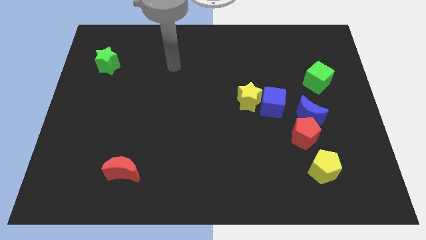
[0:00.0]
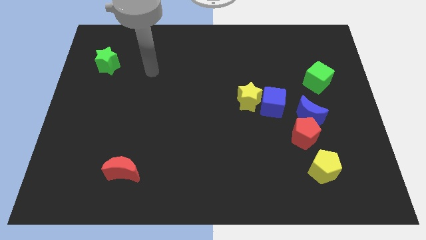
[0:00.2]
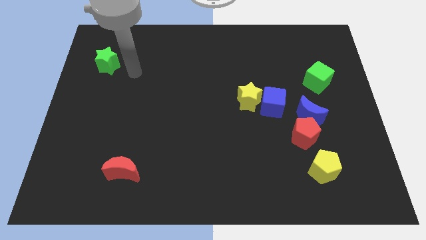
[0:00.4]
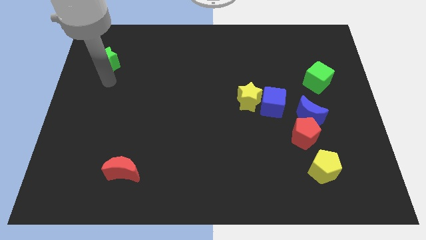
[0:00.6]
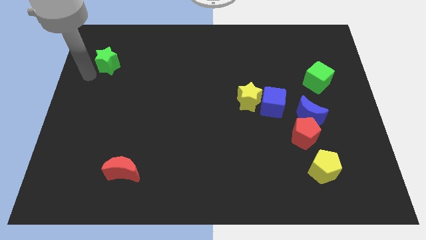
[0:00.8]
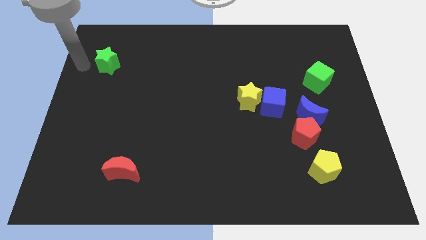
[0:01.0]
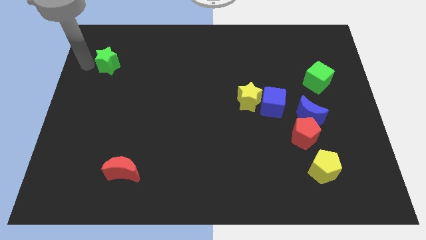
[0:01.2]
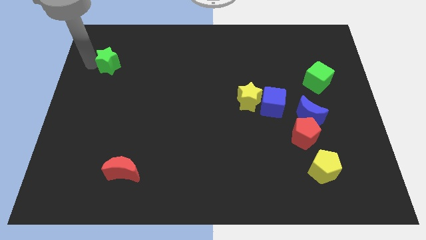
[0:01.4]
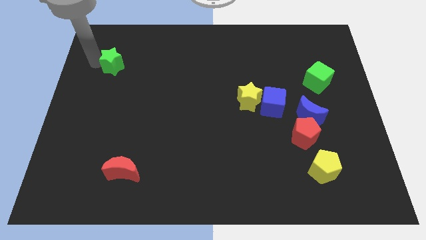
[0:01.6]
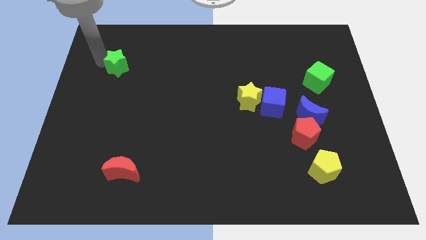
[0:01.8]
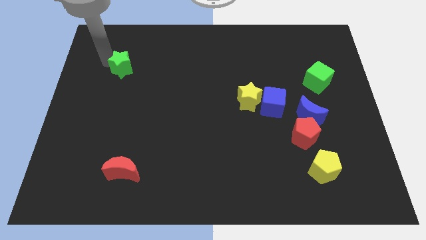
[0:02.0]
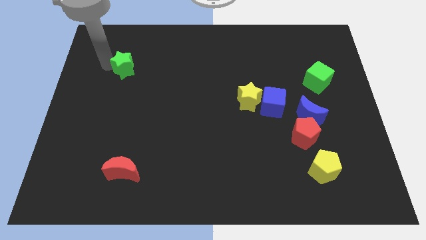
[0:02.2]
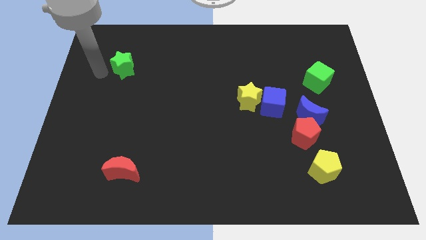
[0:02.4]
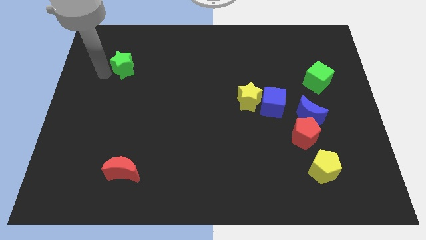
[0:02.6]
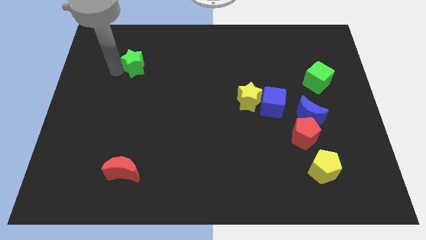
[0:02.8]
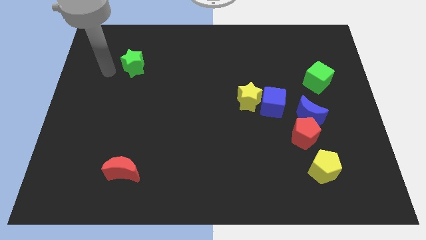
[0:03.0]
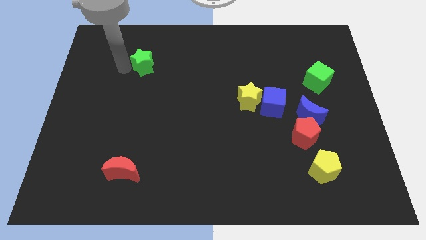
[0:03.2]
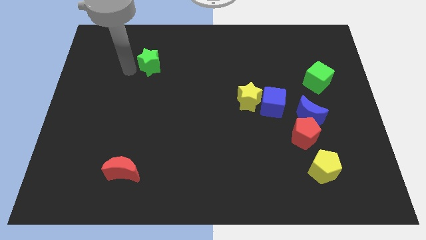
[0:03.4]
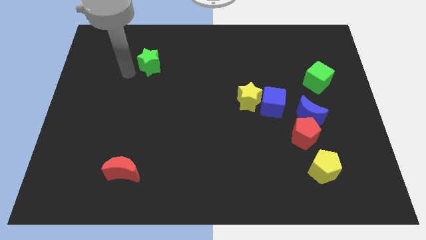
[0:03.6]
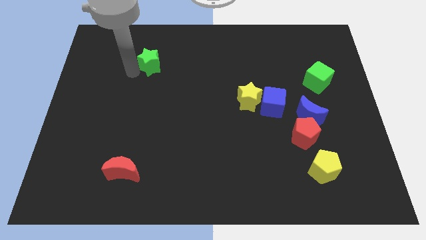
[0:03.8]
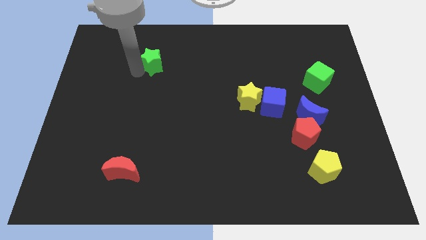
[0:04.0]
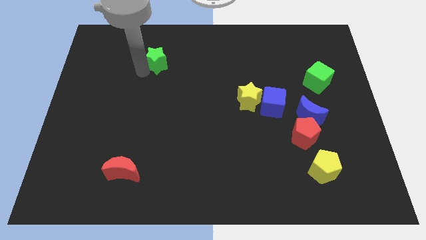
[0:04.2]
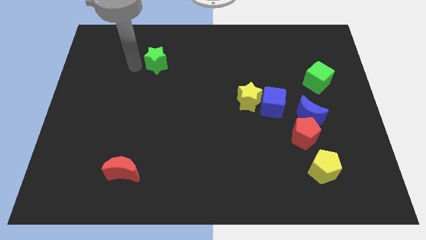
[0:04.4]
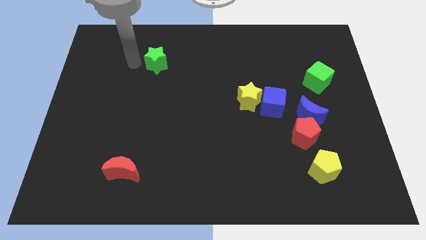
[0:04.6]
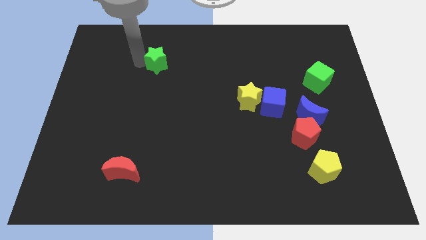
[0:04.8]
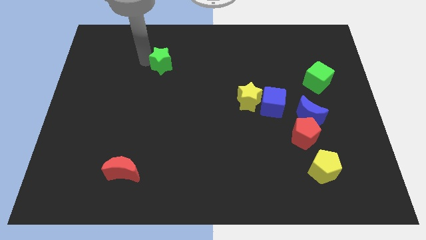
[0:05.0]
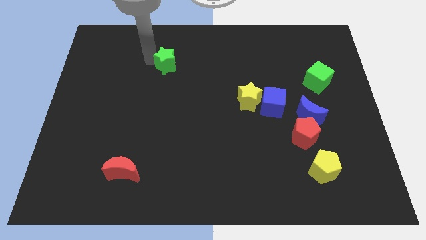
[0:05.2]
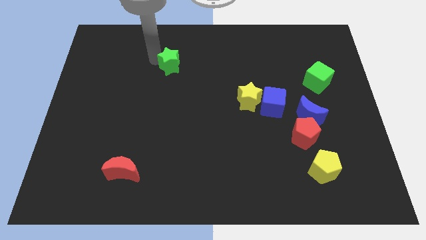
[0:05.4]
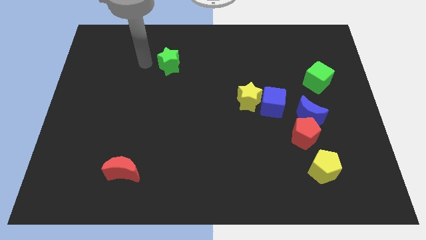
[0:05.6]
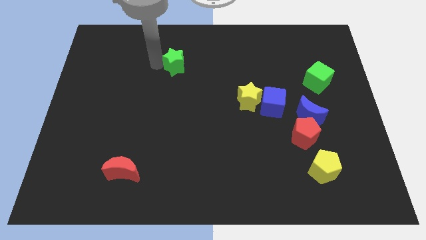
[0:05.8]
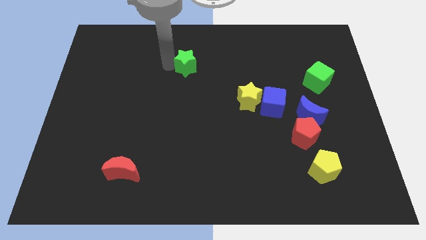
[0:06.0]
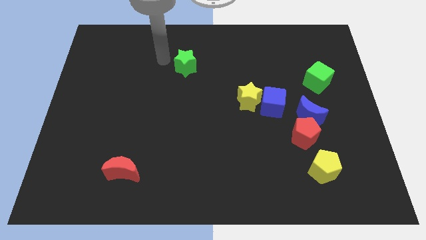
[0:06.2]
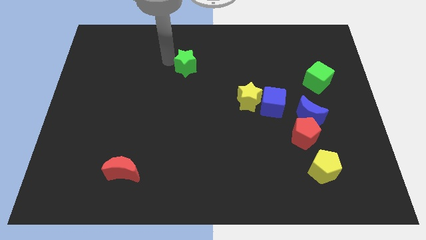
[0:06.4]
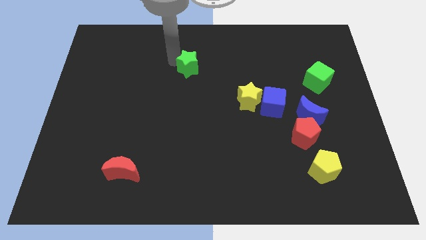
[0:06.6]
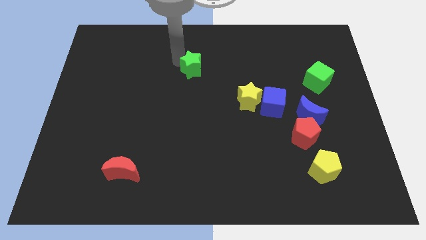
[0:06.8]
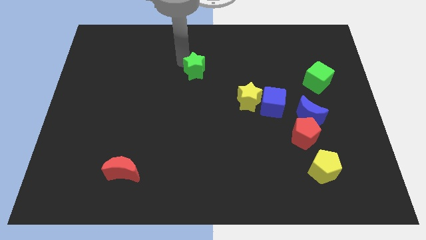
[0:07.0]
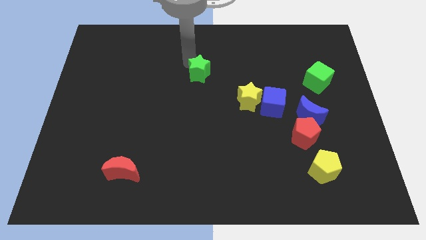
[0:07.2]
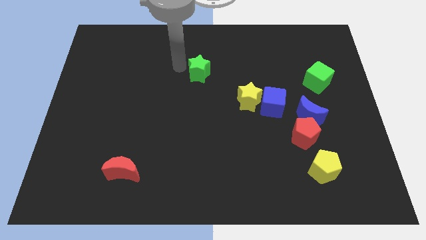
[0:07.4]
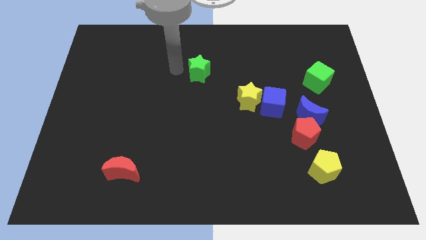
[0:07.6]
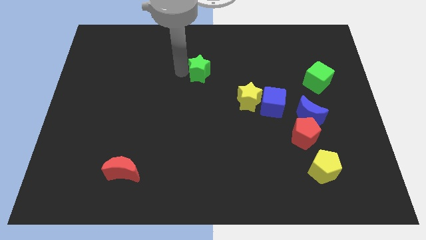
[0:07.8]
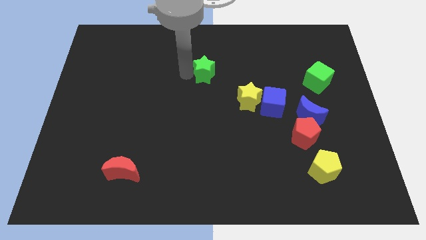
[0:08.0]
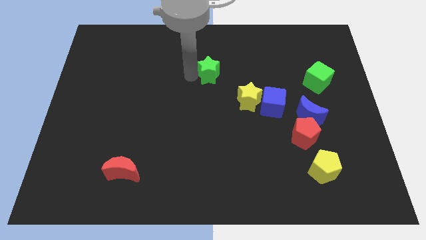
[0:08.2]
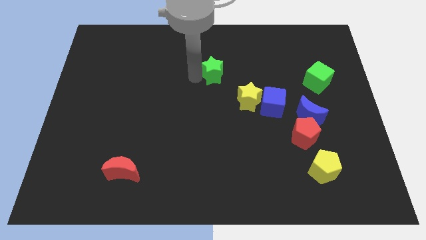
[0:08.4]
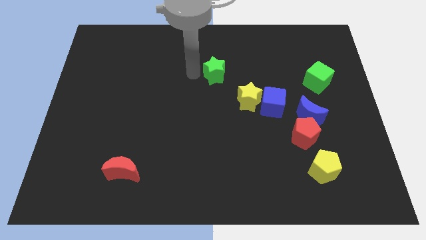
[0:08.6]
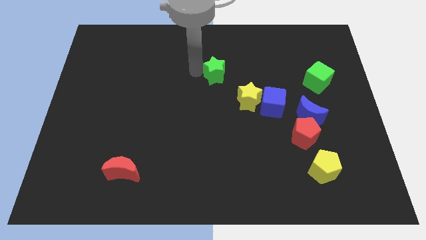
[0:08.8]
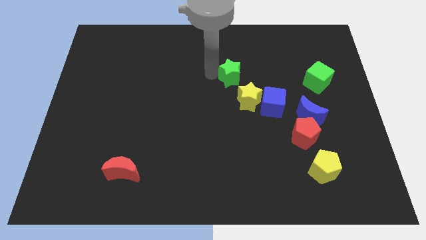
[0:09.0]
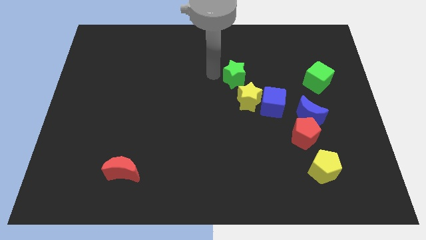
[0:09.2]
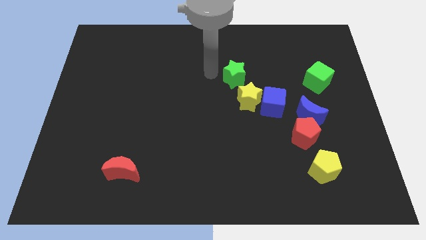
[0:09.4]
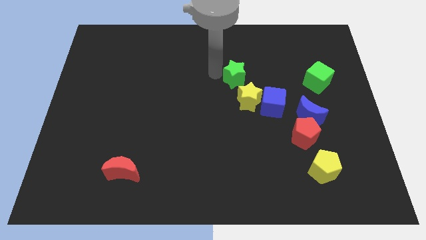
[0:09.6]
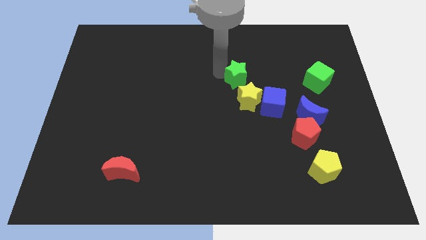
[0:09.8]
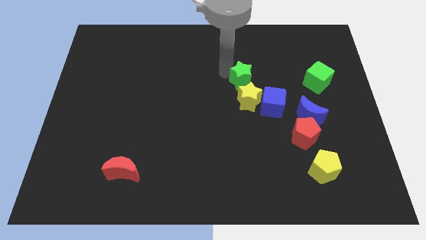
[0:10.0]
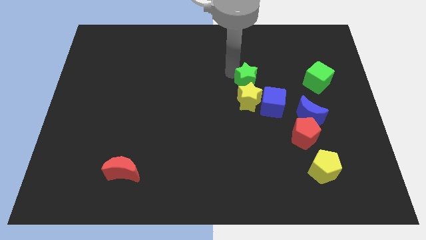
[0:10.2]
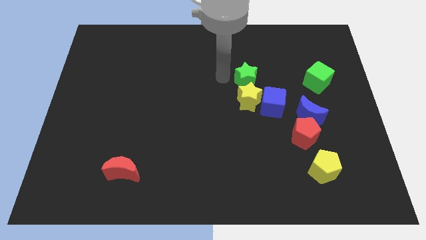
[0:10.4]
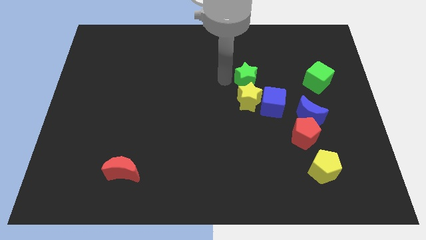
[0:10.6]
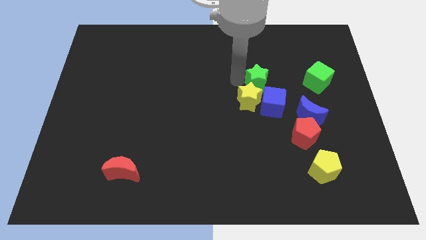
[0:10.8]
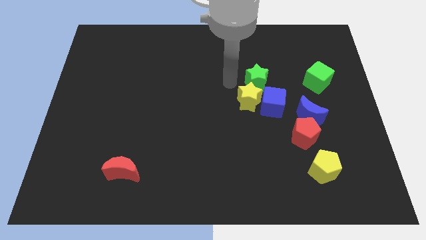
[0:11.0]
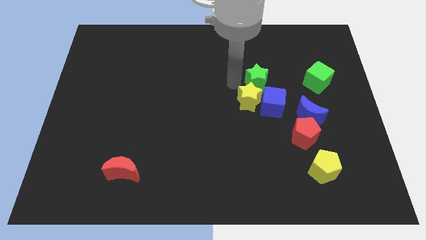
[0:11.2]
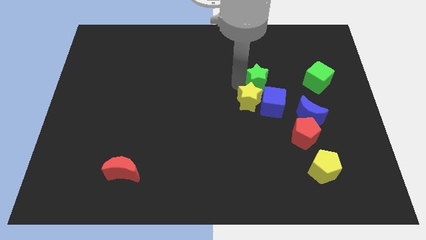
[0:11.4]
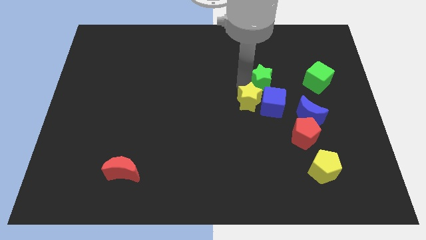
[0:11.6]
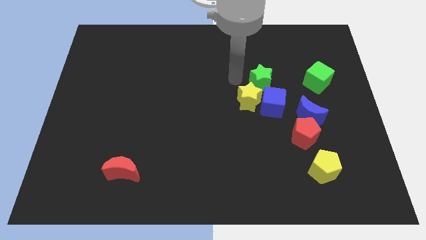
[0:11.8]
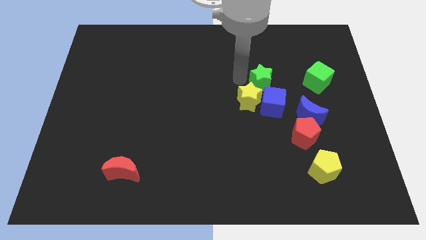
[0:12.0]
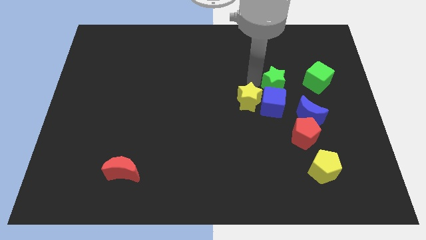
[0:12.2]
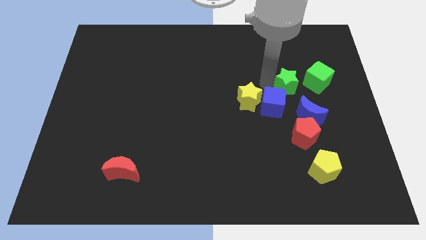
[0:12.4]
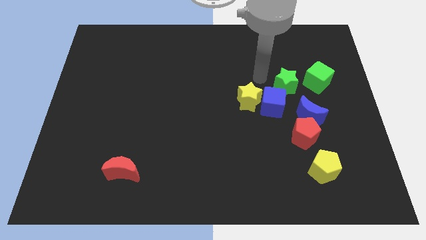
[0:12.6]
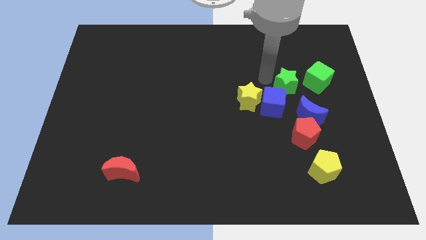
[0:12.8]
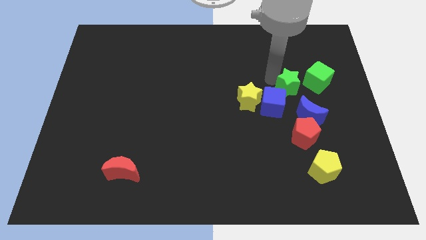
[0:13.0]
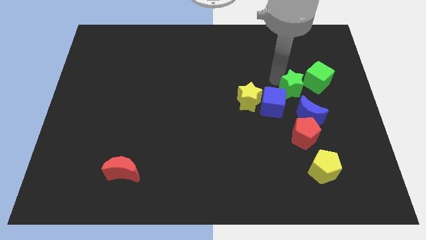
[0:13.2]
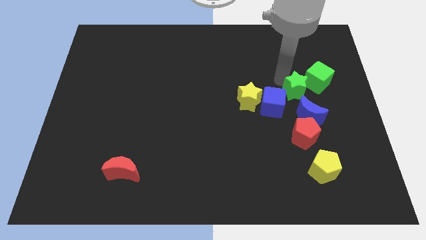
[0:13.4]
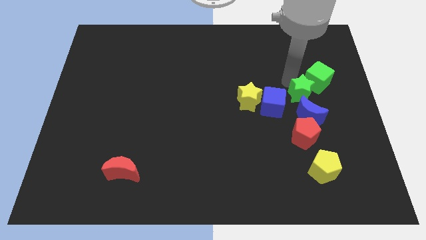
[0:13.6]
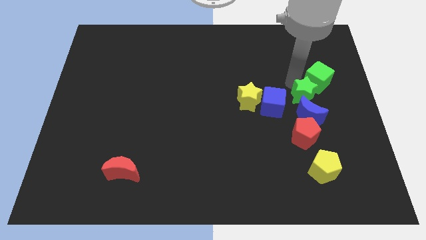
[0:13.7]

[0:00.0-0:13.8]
push the green star to the bottom side of the green cube
